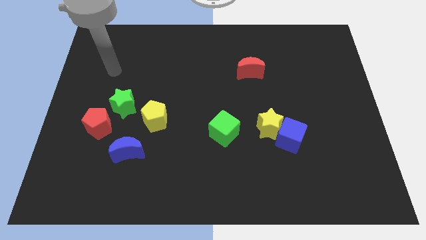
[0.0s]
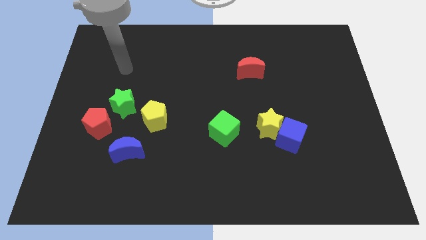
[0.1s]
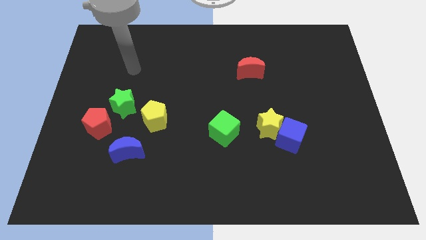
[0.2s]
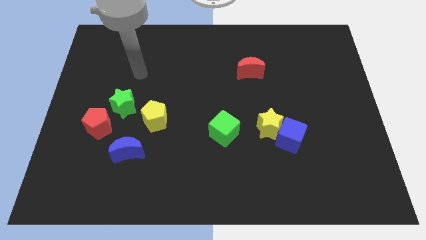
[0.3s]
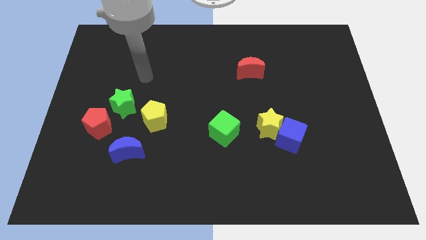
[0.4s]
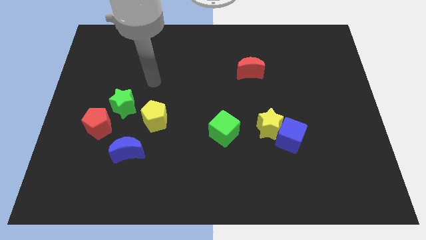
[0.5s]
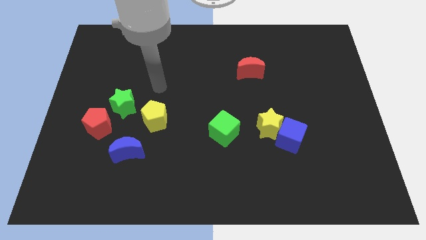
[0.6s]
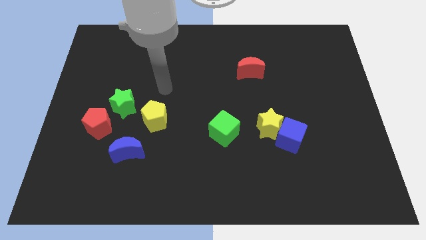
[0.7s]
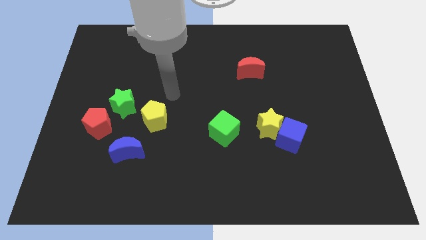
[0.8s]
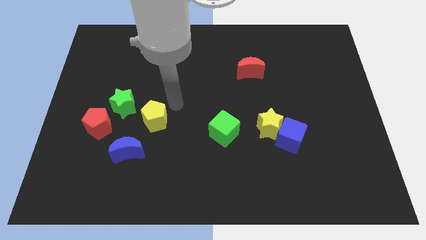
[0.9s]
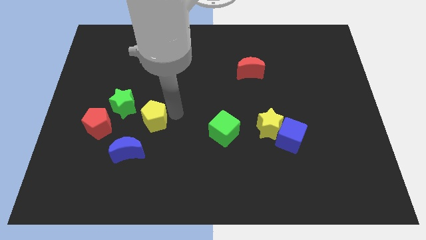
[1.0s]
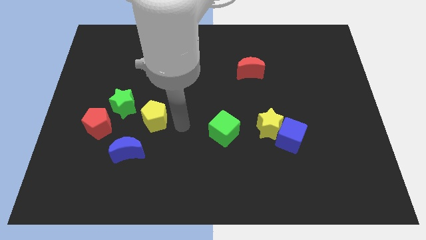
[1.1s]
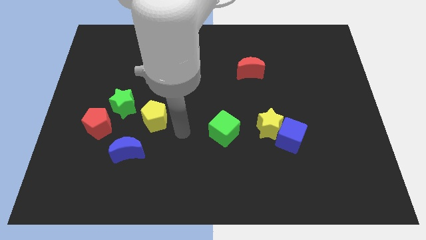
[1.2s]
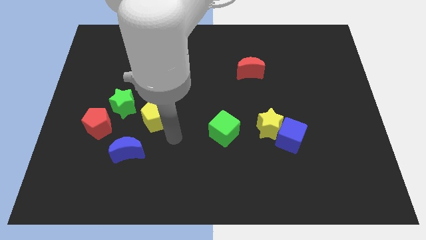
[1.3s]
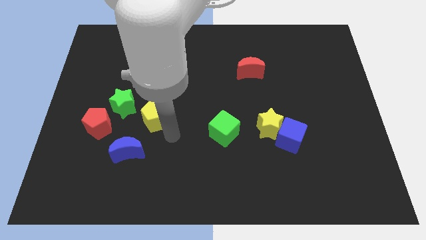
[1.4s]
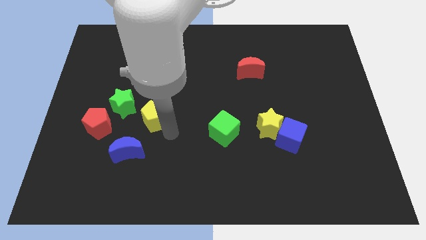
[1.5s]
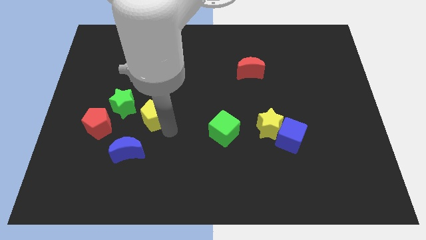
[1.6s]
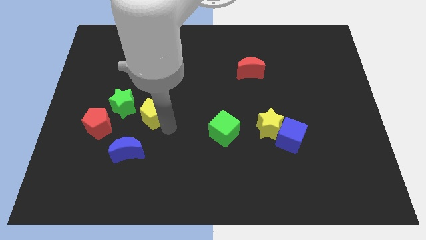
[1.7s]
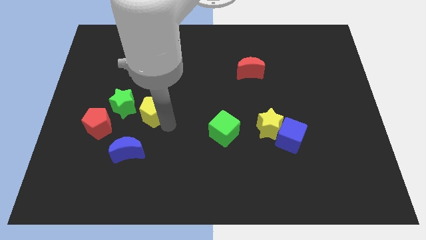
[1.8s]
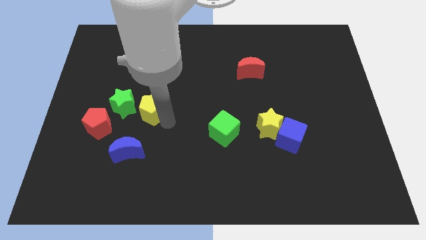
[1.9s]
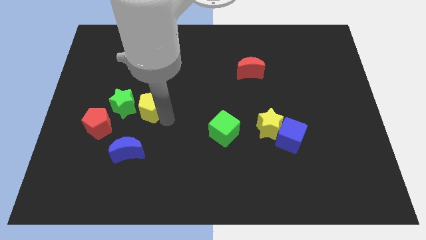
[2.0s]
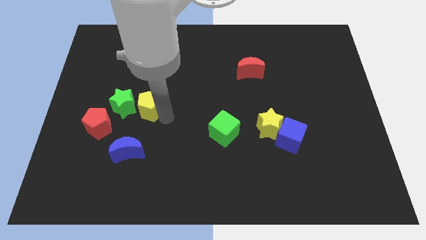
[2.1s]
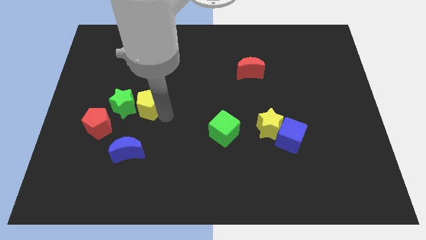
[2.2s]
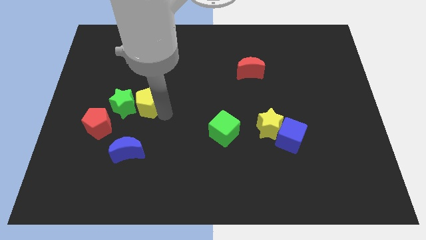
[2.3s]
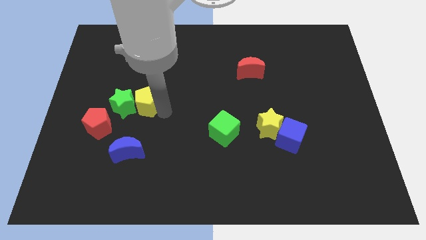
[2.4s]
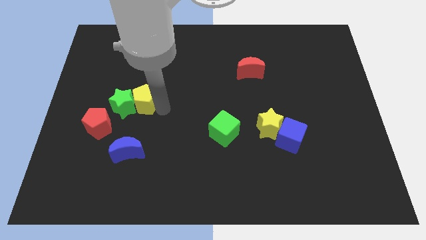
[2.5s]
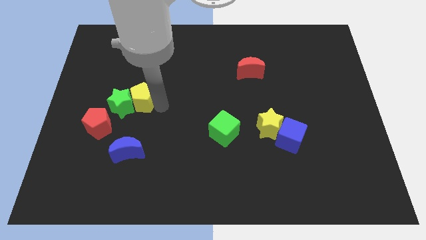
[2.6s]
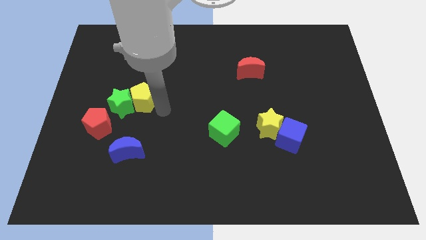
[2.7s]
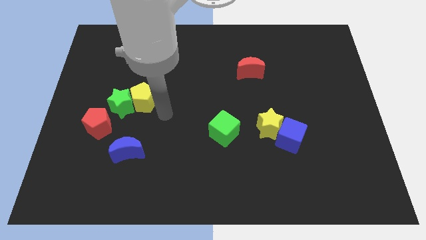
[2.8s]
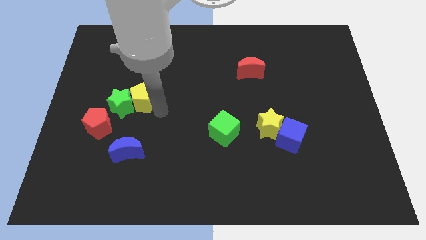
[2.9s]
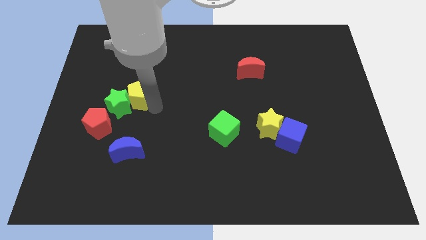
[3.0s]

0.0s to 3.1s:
move the yellow pentagon up and left a bit

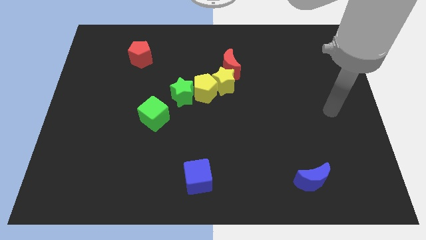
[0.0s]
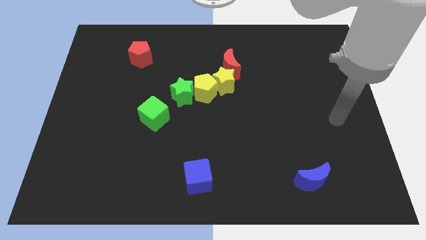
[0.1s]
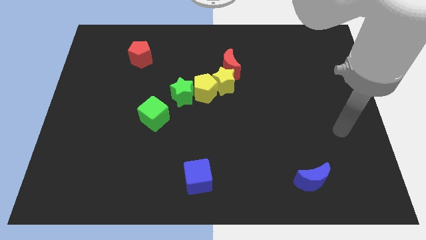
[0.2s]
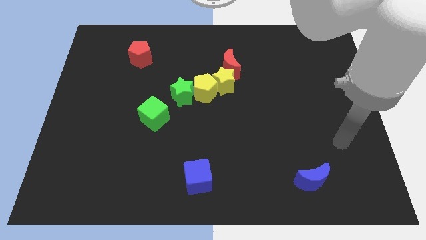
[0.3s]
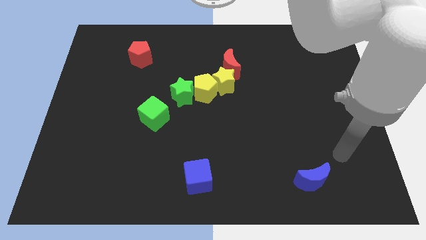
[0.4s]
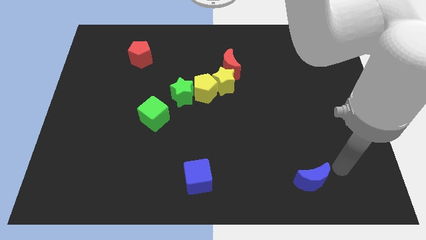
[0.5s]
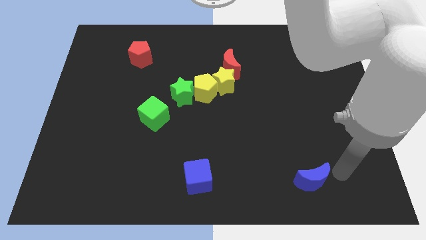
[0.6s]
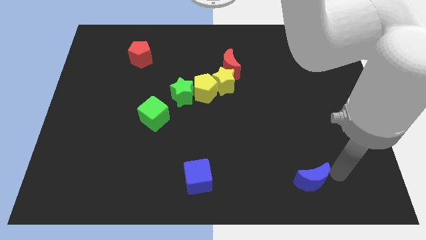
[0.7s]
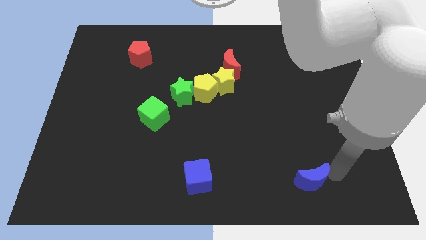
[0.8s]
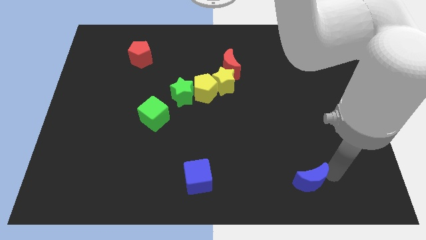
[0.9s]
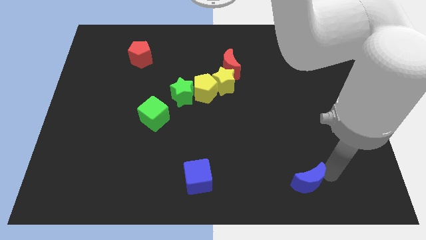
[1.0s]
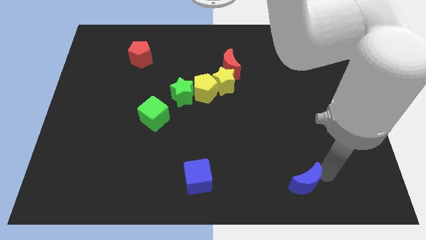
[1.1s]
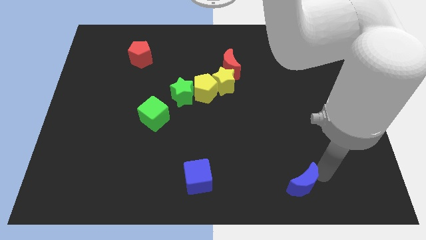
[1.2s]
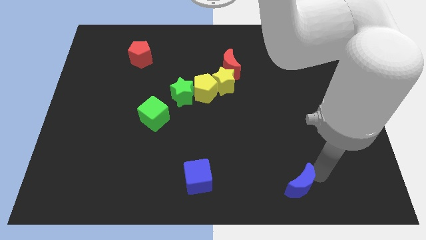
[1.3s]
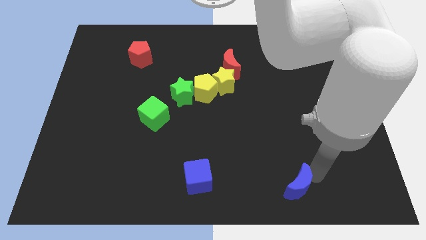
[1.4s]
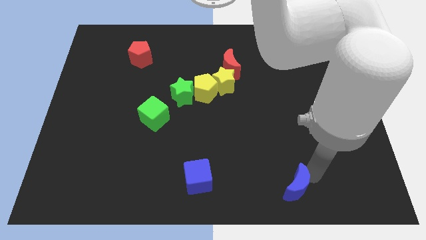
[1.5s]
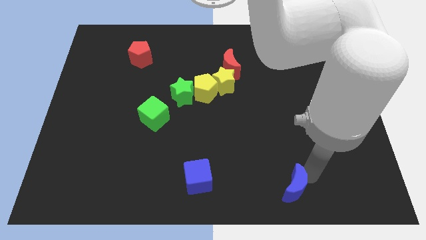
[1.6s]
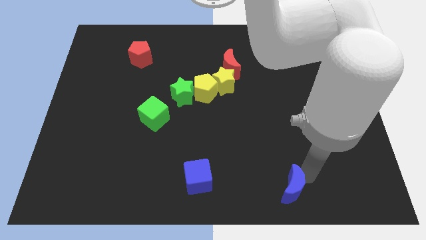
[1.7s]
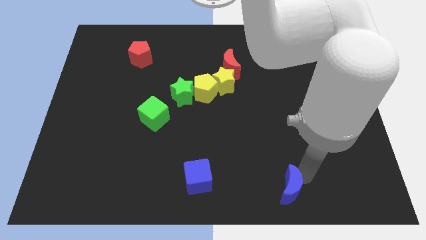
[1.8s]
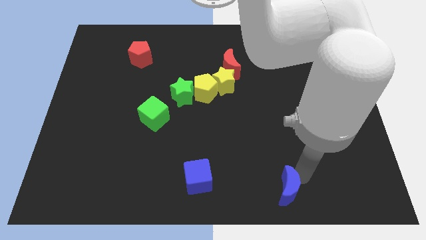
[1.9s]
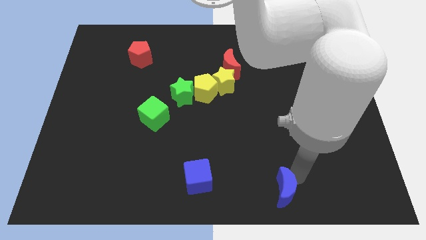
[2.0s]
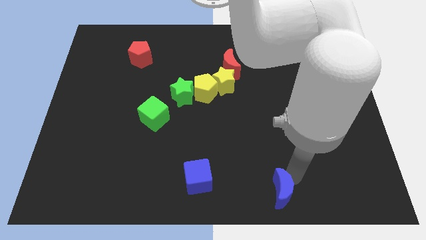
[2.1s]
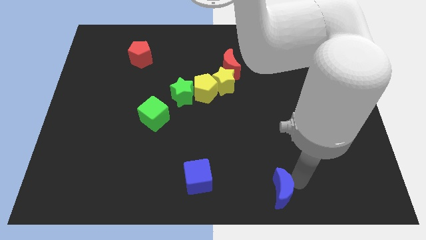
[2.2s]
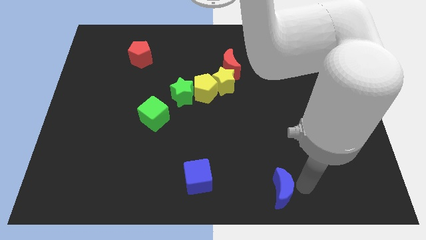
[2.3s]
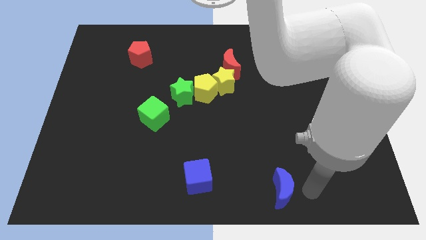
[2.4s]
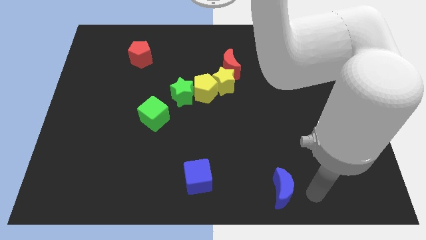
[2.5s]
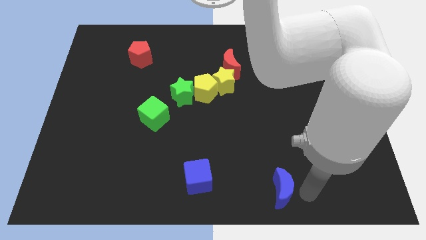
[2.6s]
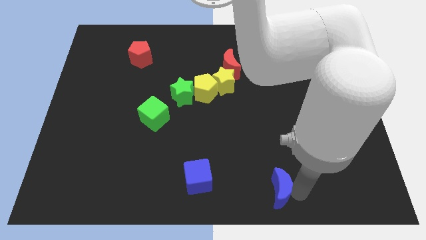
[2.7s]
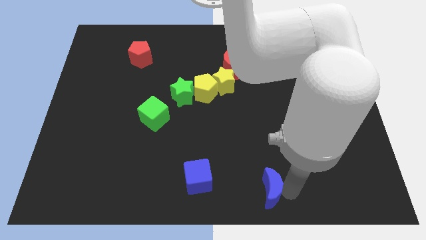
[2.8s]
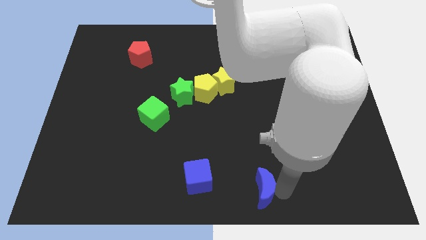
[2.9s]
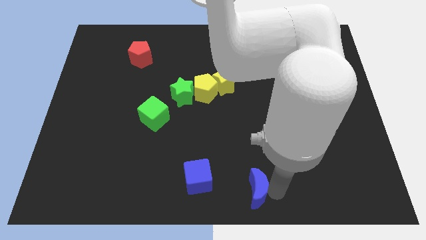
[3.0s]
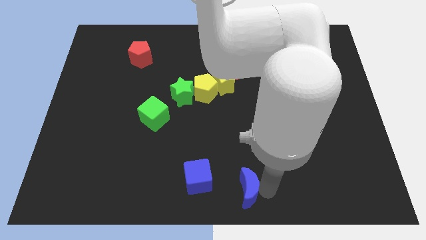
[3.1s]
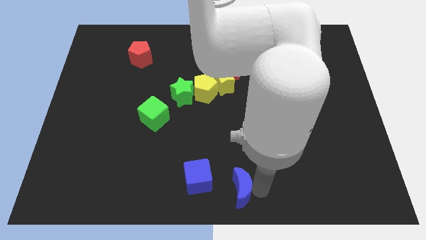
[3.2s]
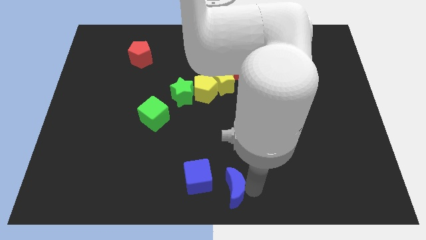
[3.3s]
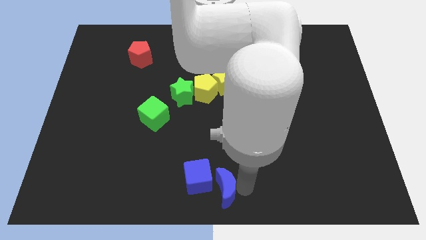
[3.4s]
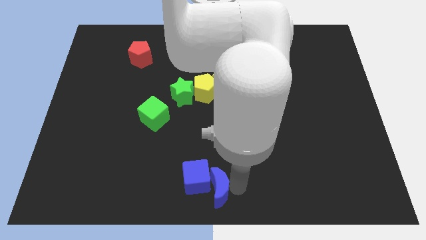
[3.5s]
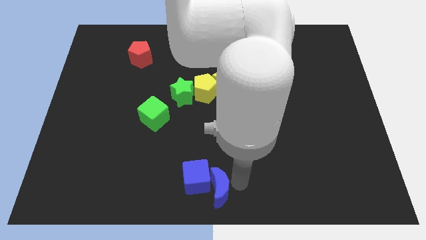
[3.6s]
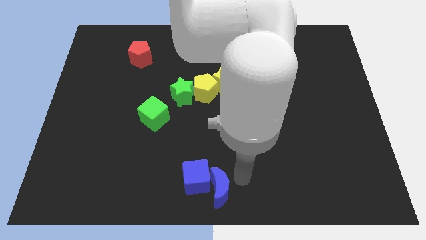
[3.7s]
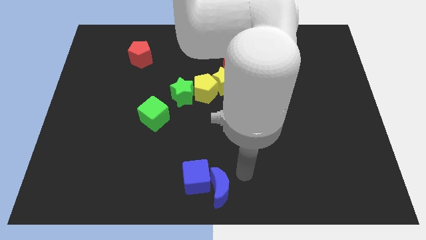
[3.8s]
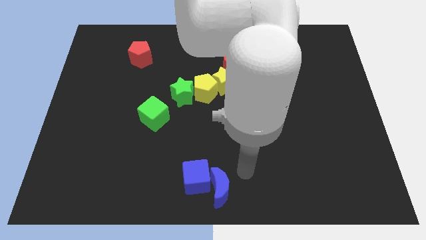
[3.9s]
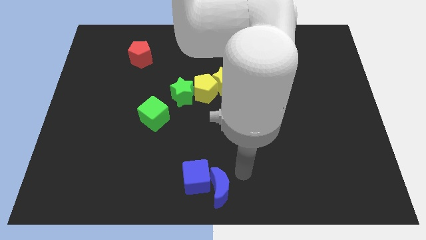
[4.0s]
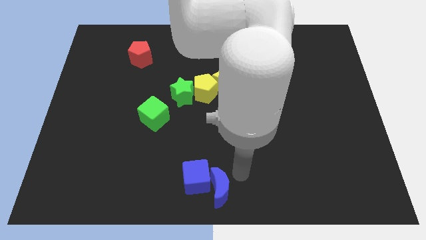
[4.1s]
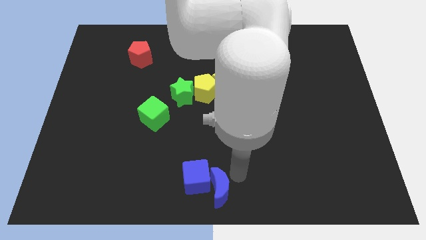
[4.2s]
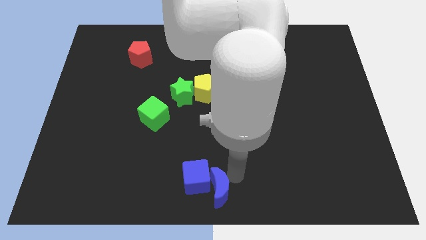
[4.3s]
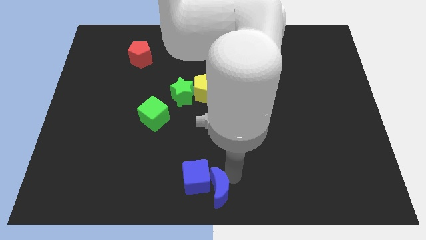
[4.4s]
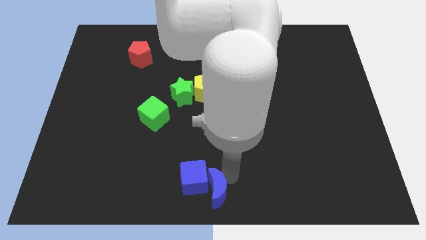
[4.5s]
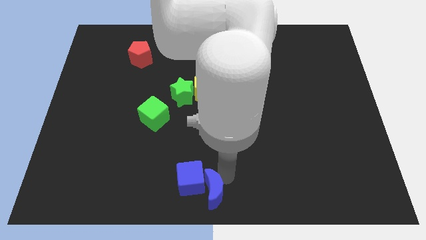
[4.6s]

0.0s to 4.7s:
slide the blue moon left
